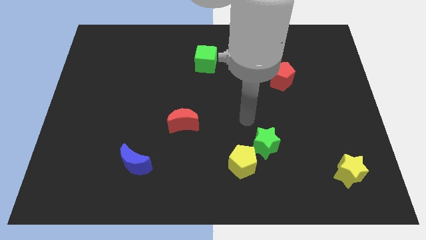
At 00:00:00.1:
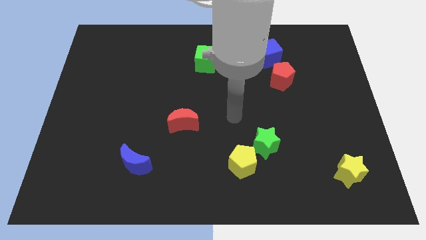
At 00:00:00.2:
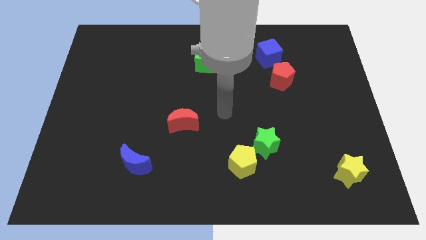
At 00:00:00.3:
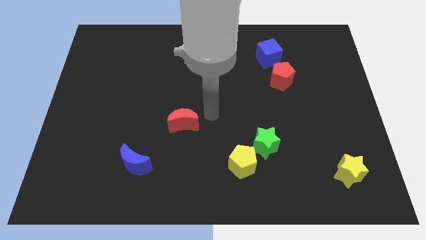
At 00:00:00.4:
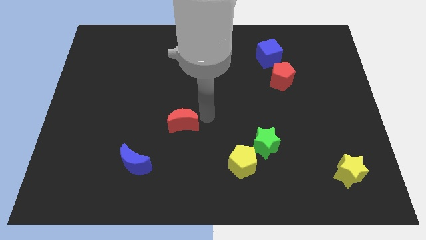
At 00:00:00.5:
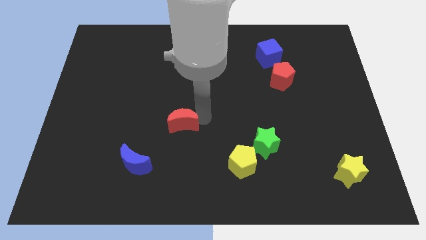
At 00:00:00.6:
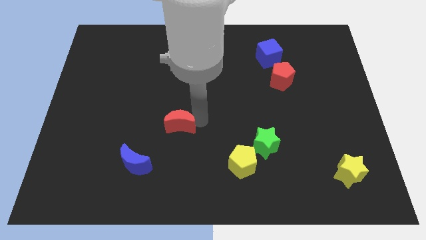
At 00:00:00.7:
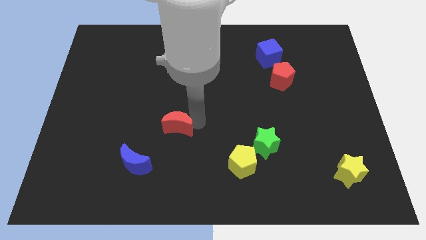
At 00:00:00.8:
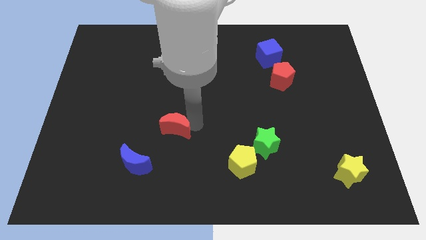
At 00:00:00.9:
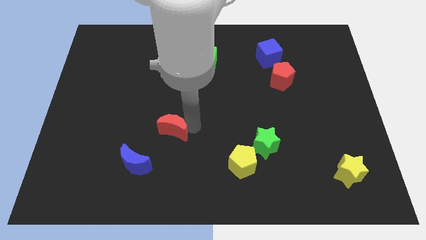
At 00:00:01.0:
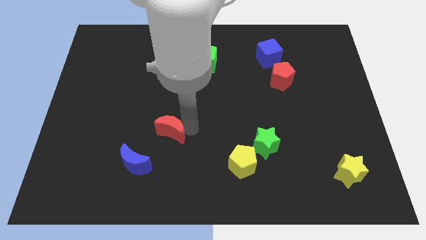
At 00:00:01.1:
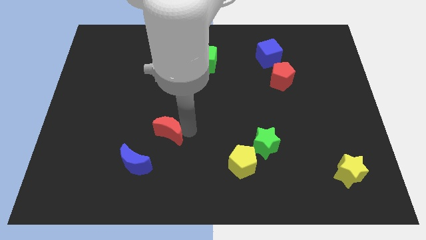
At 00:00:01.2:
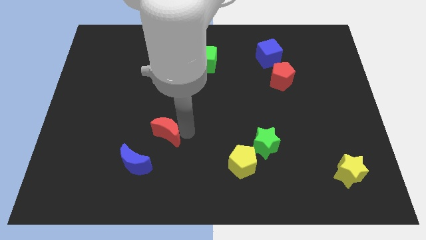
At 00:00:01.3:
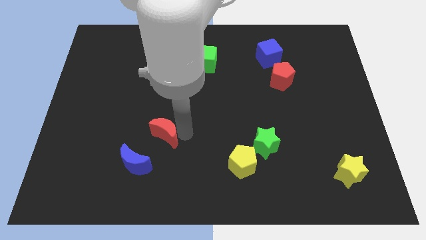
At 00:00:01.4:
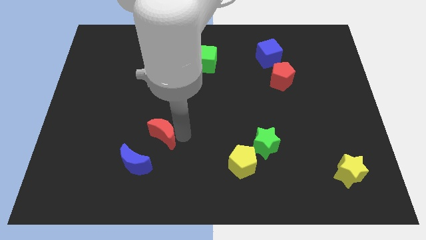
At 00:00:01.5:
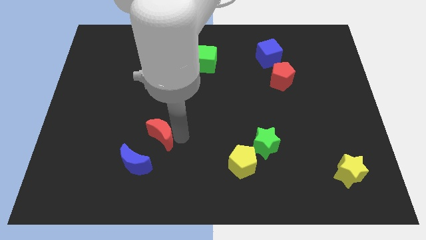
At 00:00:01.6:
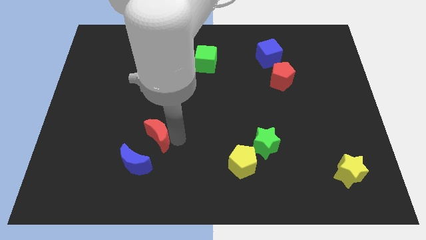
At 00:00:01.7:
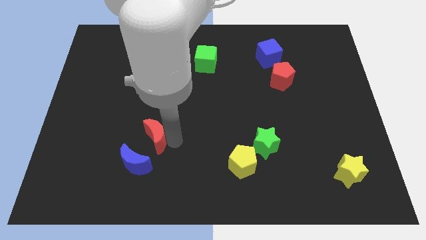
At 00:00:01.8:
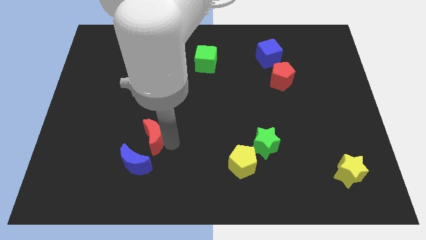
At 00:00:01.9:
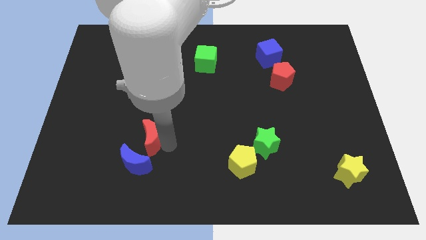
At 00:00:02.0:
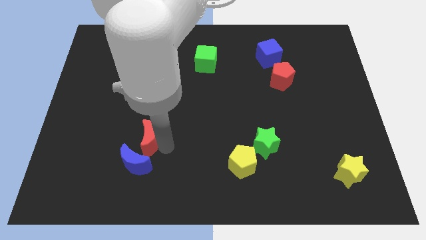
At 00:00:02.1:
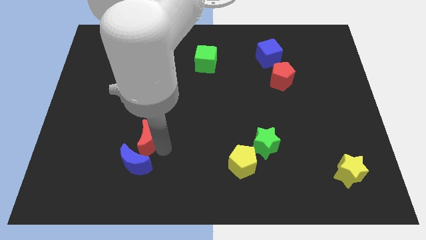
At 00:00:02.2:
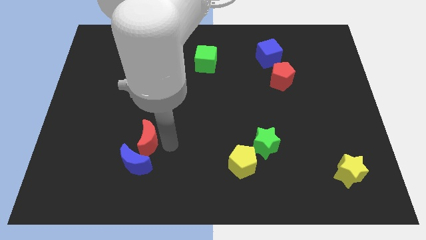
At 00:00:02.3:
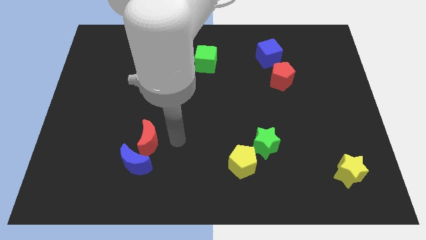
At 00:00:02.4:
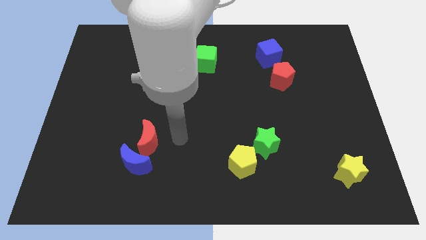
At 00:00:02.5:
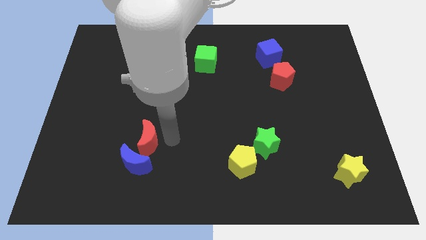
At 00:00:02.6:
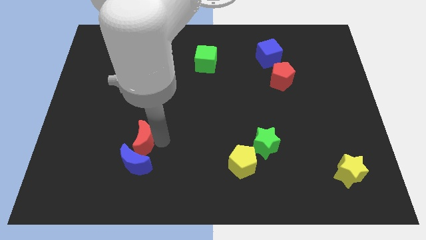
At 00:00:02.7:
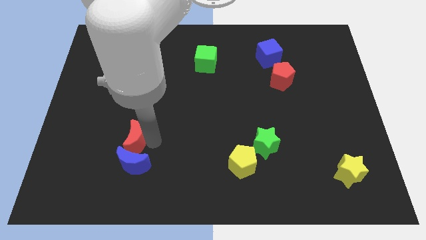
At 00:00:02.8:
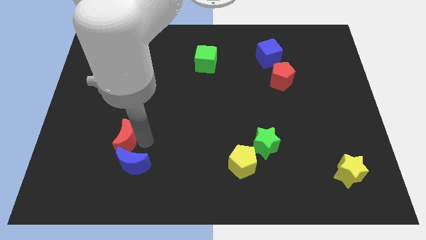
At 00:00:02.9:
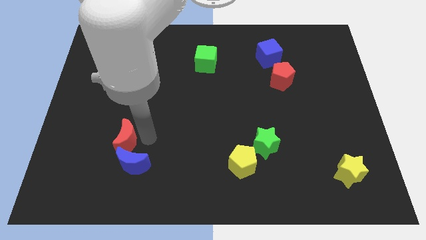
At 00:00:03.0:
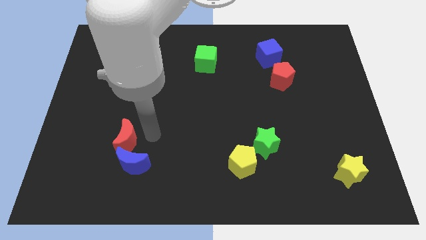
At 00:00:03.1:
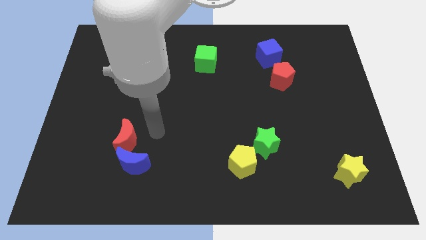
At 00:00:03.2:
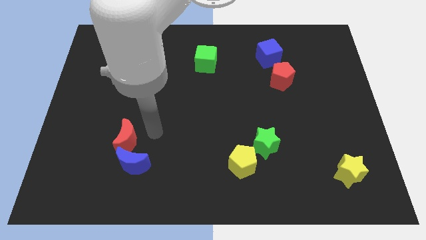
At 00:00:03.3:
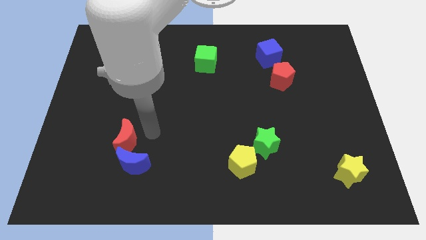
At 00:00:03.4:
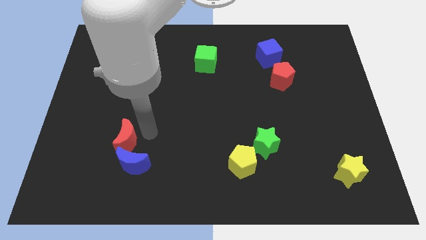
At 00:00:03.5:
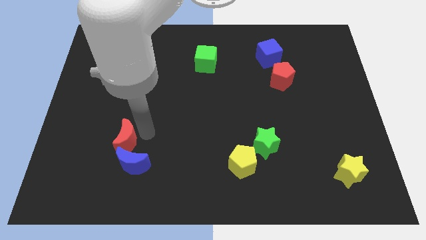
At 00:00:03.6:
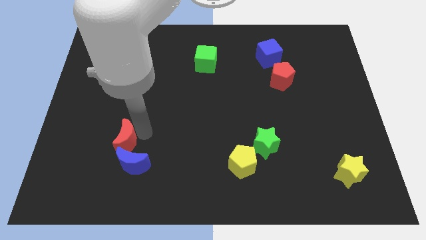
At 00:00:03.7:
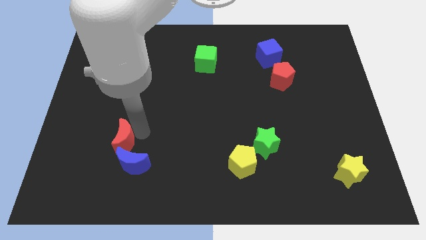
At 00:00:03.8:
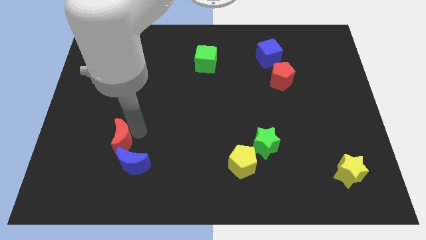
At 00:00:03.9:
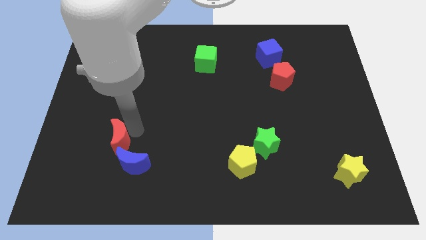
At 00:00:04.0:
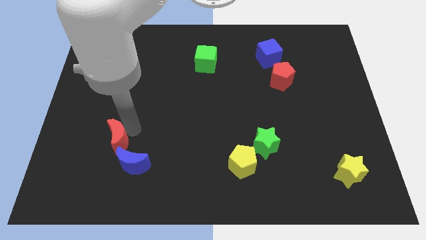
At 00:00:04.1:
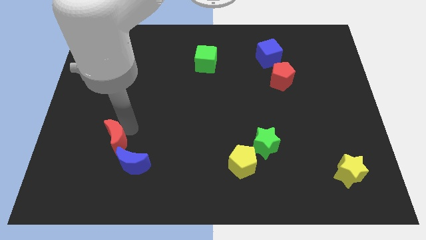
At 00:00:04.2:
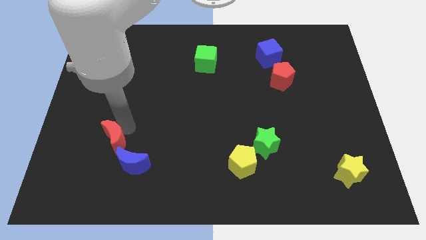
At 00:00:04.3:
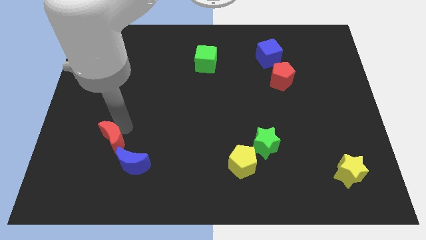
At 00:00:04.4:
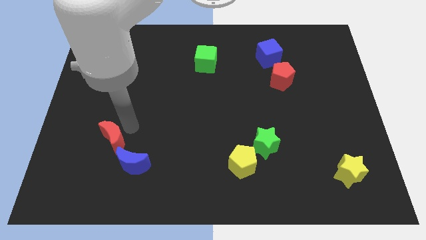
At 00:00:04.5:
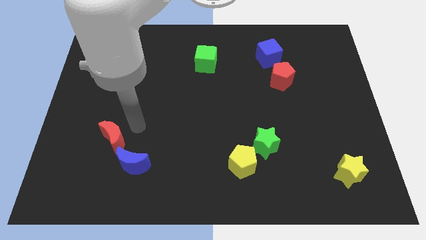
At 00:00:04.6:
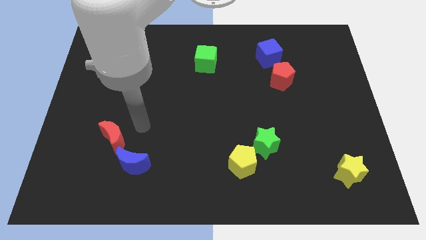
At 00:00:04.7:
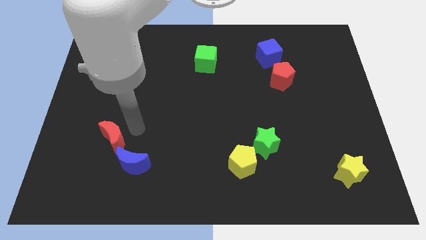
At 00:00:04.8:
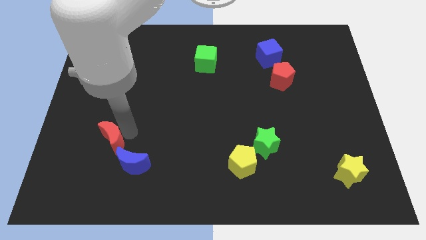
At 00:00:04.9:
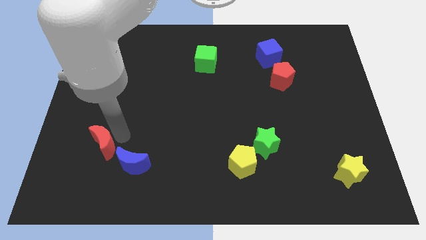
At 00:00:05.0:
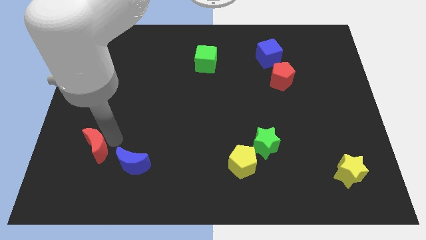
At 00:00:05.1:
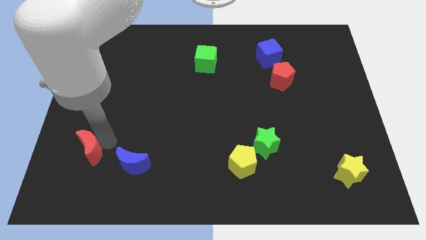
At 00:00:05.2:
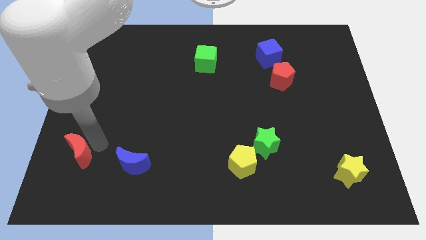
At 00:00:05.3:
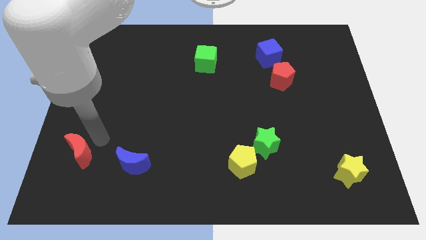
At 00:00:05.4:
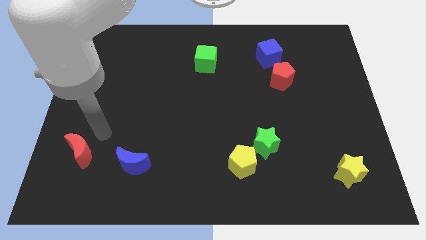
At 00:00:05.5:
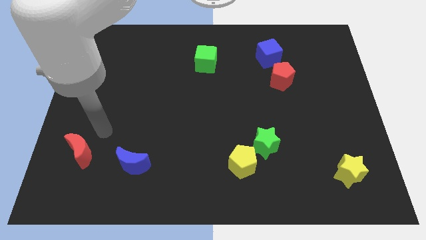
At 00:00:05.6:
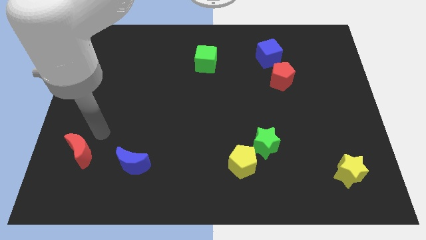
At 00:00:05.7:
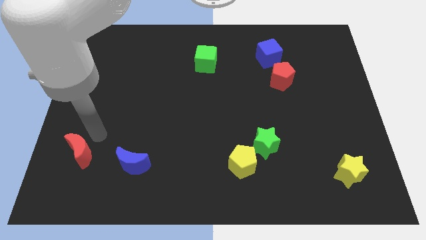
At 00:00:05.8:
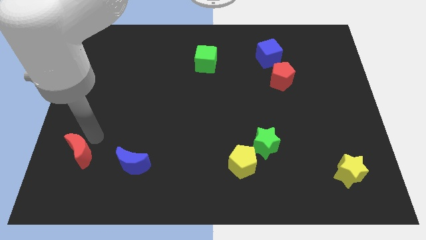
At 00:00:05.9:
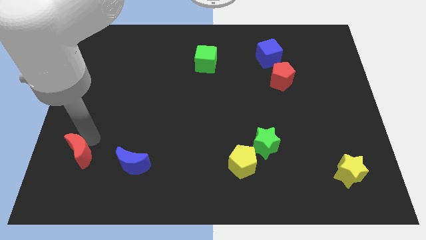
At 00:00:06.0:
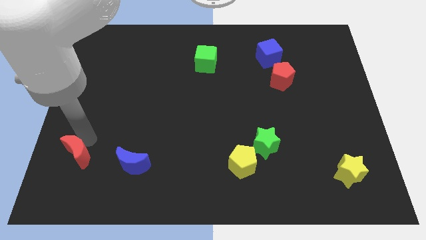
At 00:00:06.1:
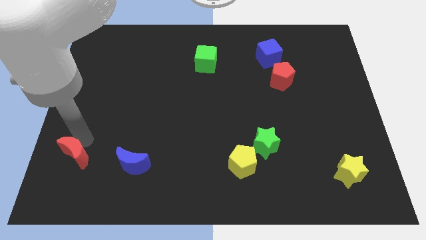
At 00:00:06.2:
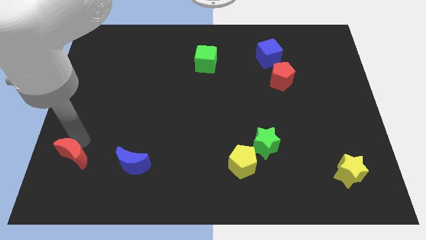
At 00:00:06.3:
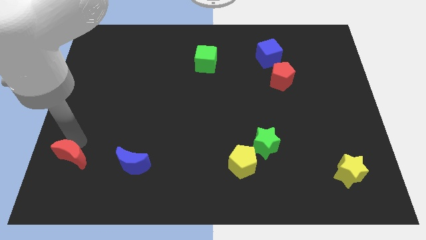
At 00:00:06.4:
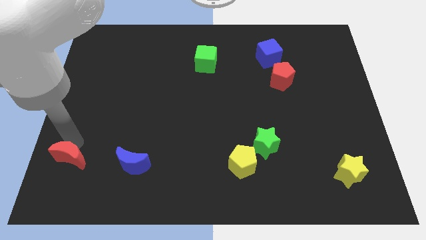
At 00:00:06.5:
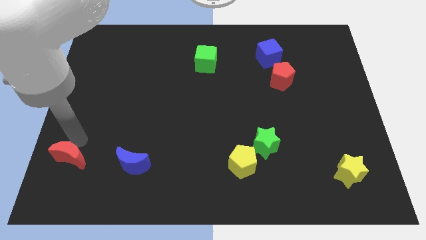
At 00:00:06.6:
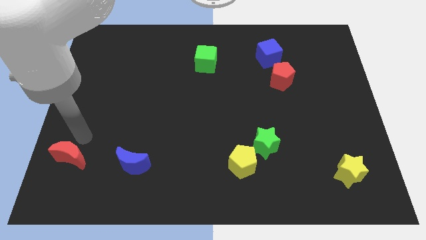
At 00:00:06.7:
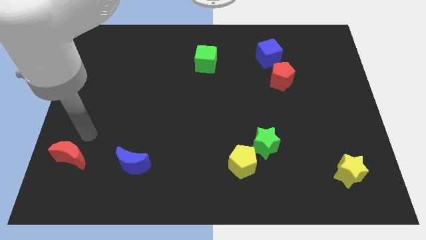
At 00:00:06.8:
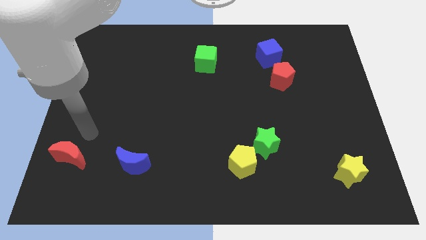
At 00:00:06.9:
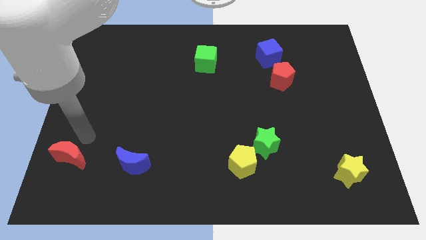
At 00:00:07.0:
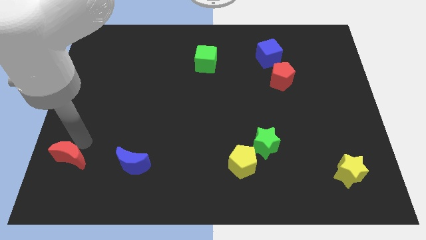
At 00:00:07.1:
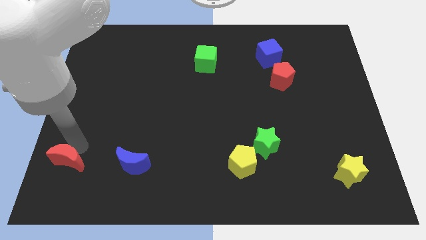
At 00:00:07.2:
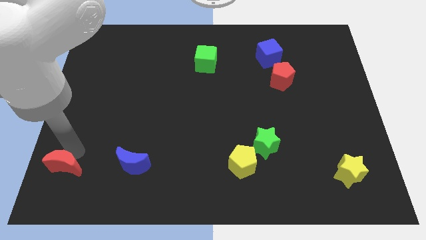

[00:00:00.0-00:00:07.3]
put the red moon to the bottom left of the board
